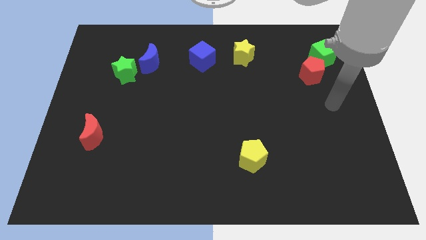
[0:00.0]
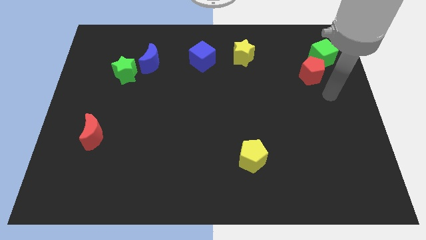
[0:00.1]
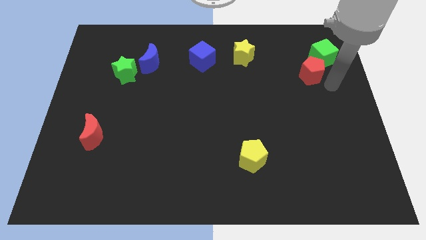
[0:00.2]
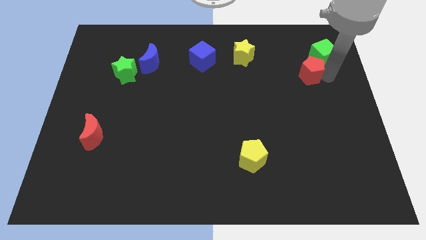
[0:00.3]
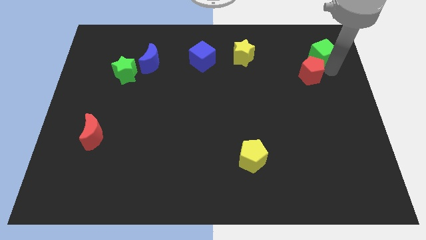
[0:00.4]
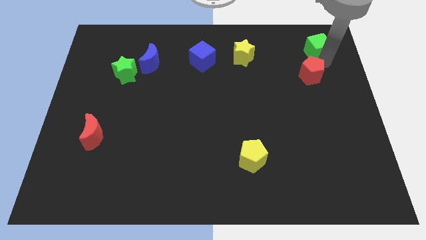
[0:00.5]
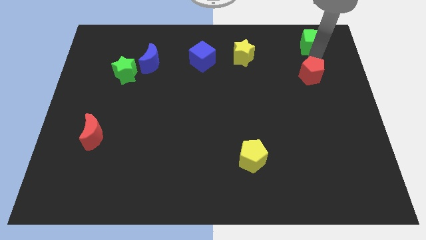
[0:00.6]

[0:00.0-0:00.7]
move the red pentagon away from the green cube

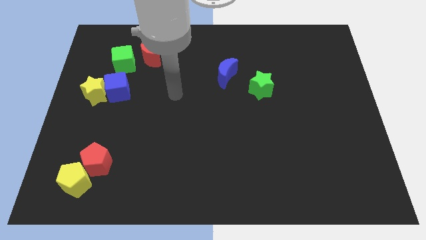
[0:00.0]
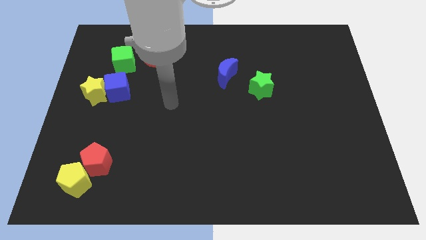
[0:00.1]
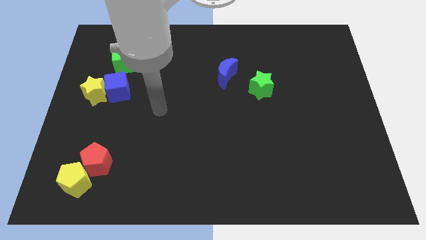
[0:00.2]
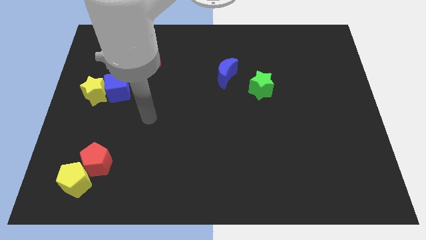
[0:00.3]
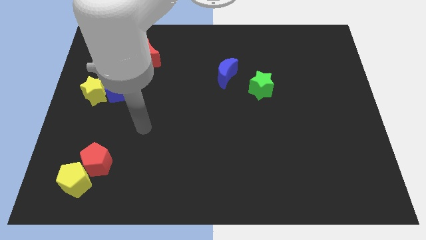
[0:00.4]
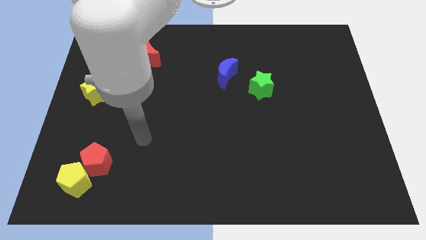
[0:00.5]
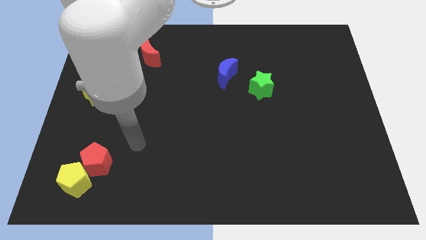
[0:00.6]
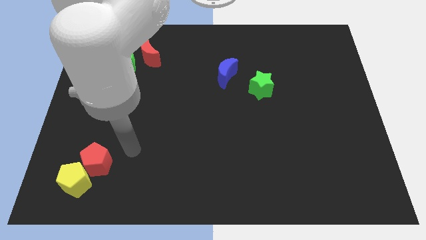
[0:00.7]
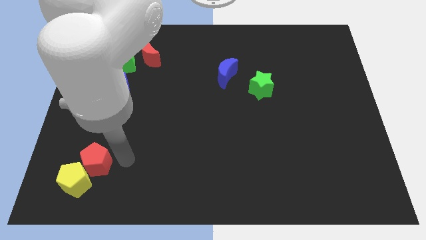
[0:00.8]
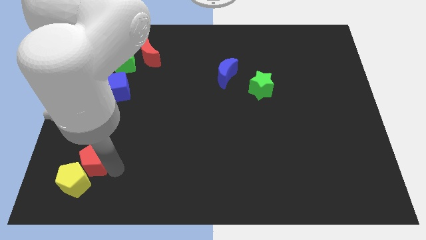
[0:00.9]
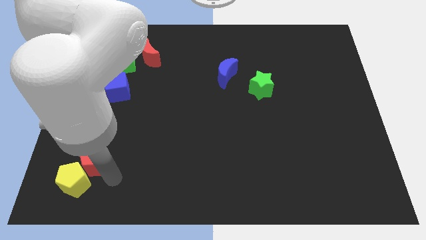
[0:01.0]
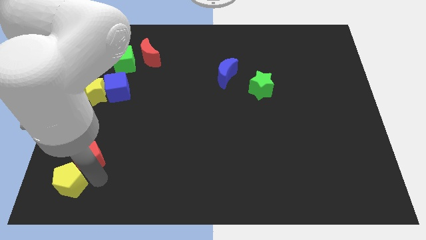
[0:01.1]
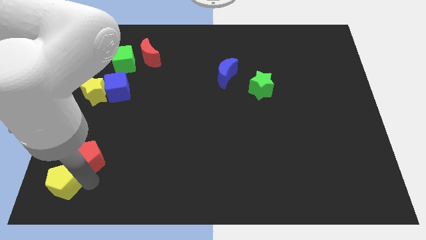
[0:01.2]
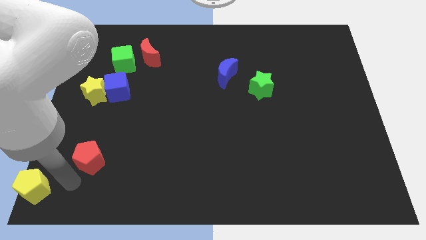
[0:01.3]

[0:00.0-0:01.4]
separate the red pentagon from the yellow pentagon

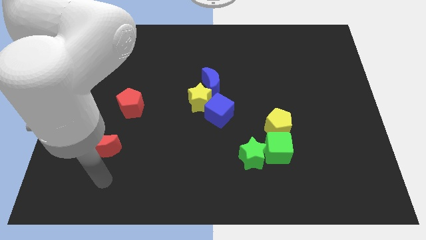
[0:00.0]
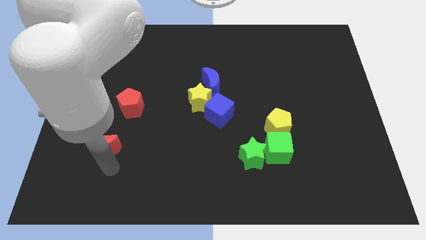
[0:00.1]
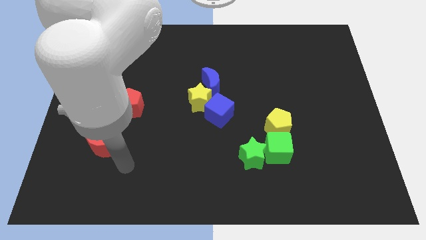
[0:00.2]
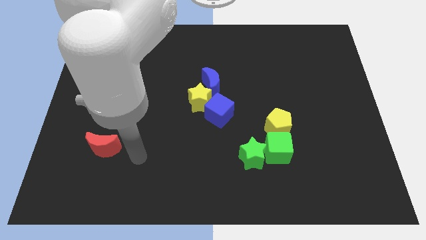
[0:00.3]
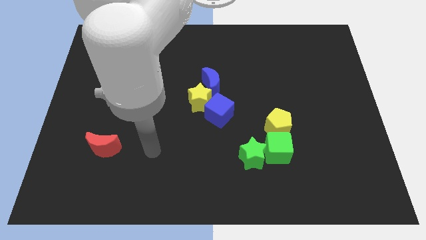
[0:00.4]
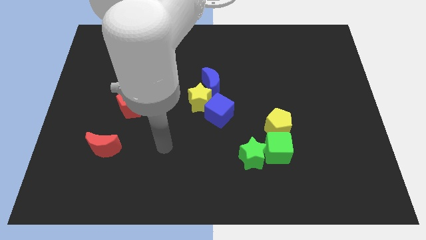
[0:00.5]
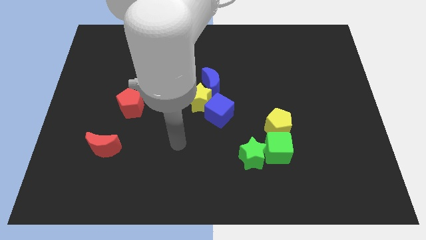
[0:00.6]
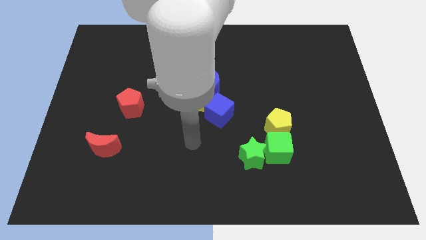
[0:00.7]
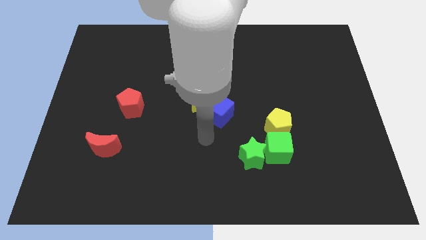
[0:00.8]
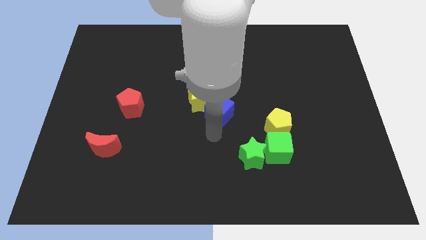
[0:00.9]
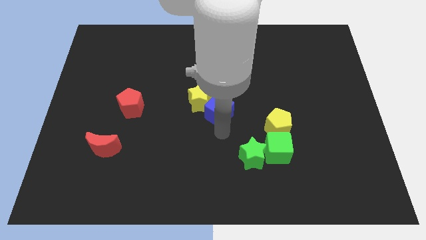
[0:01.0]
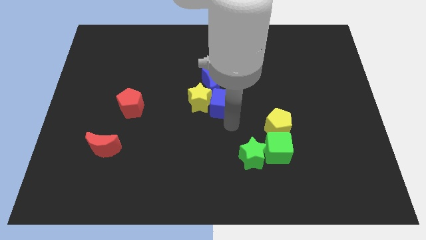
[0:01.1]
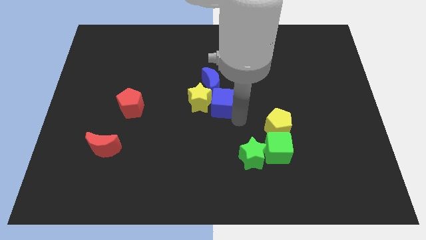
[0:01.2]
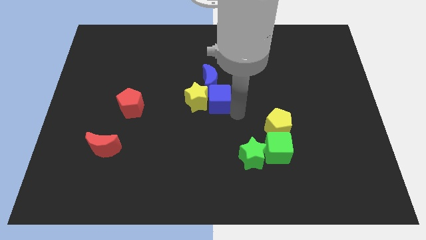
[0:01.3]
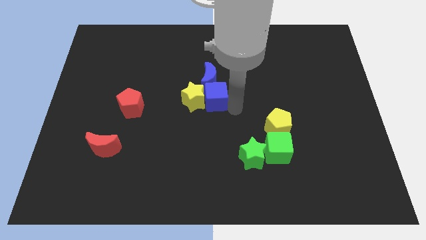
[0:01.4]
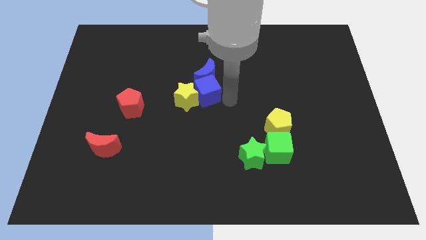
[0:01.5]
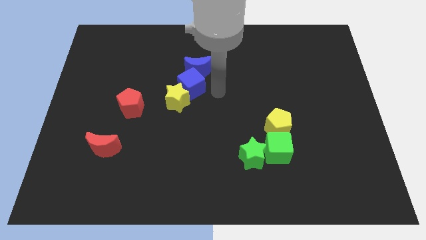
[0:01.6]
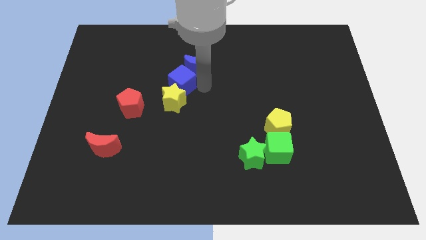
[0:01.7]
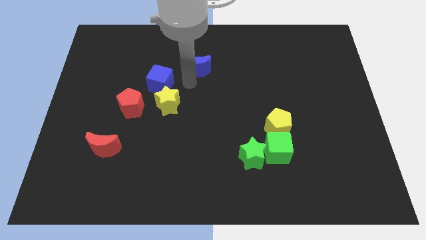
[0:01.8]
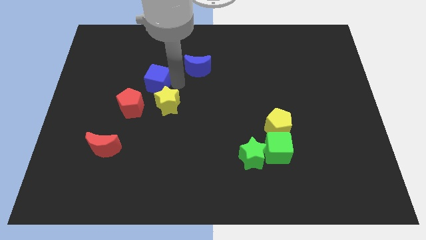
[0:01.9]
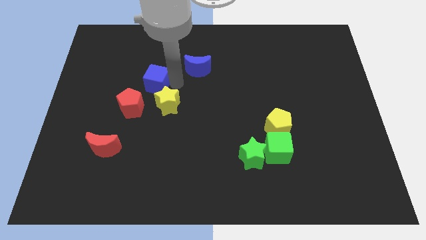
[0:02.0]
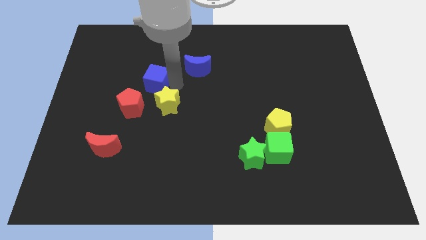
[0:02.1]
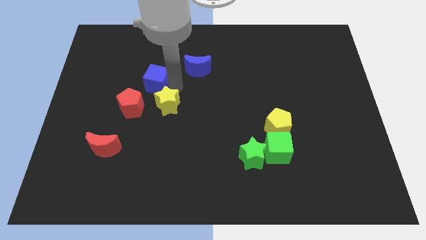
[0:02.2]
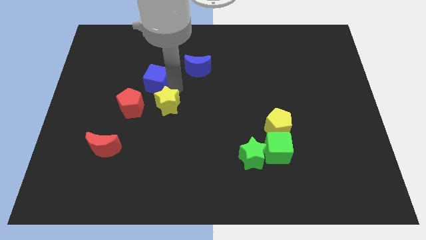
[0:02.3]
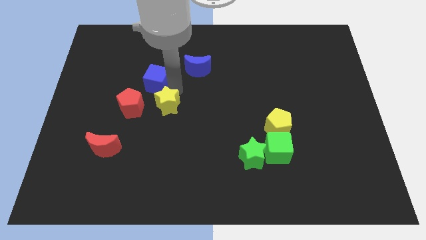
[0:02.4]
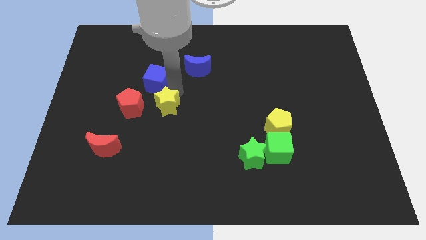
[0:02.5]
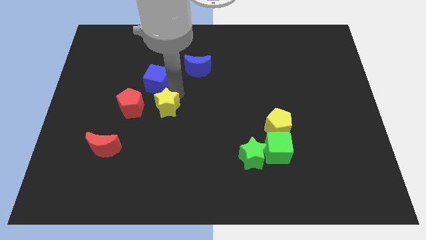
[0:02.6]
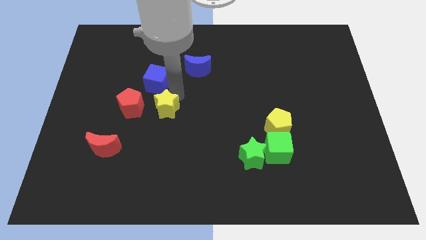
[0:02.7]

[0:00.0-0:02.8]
move the yellow star away from the blue cube and blue moon

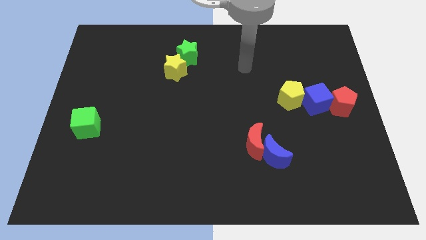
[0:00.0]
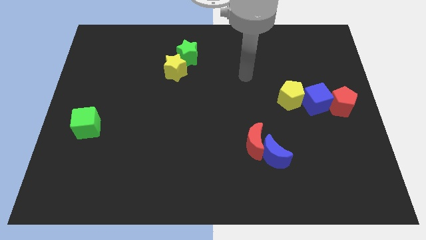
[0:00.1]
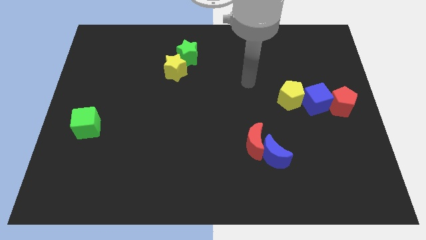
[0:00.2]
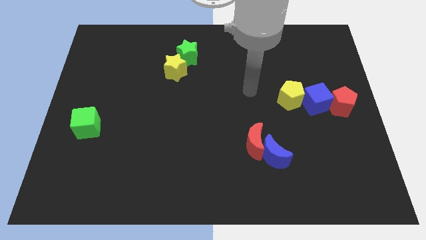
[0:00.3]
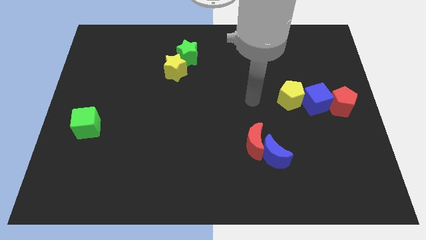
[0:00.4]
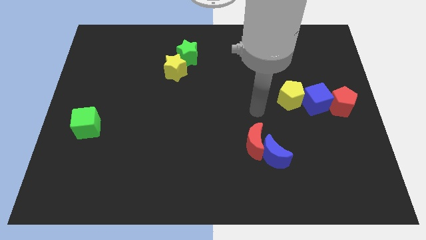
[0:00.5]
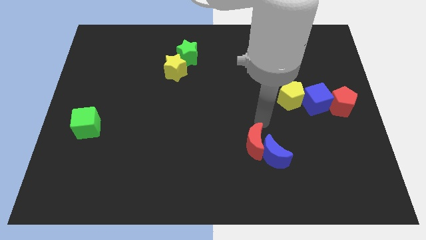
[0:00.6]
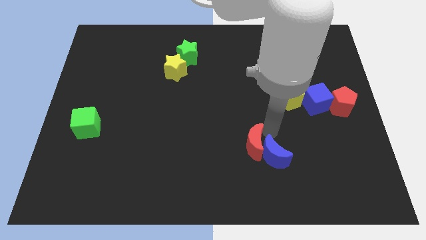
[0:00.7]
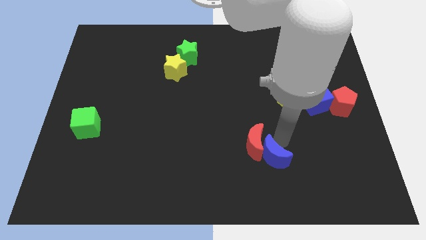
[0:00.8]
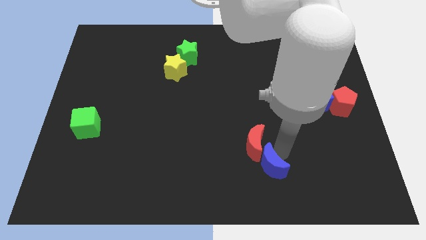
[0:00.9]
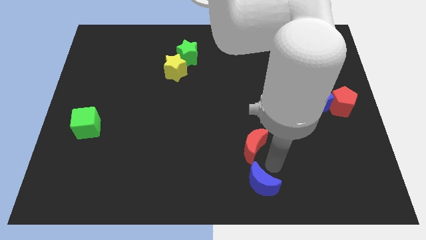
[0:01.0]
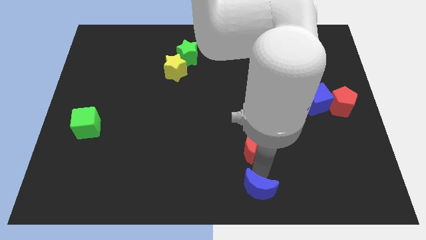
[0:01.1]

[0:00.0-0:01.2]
move the red moon away from the blue moon

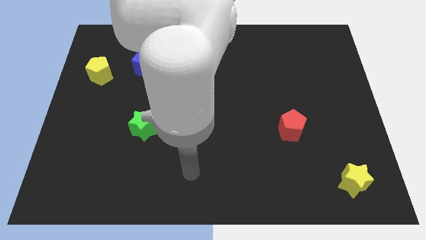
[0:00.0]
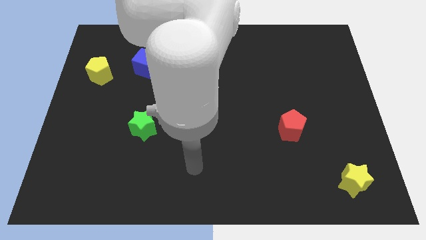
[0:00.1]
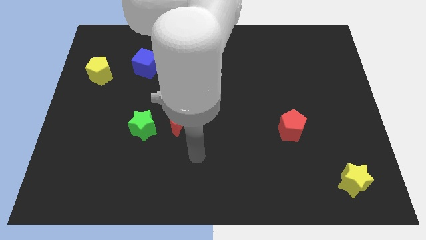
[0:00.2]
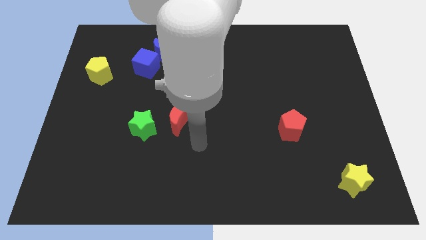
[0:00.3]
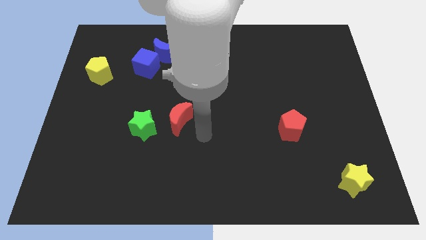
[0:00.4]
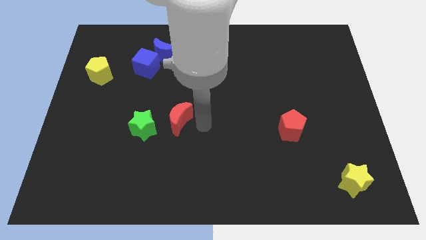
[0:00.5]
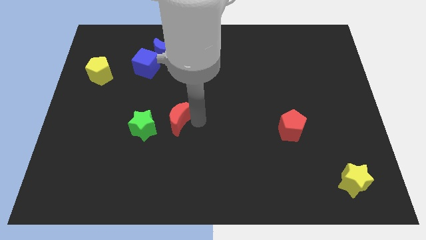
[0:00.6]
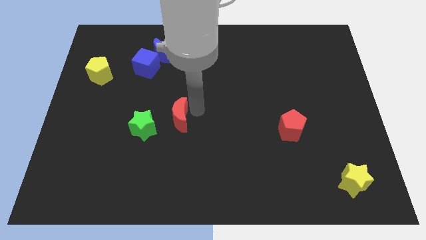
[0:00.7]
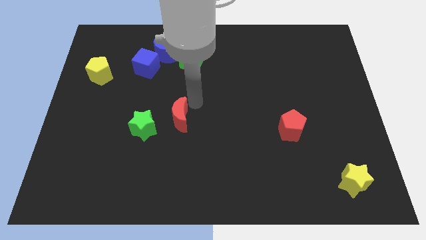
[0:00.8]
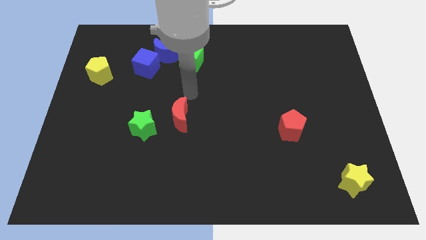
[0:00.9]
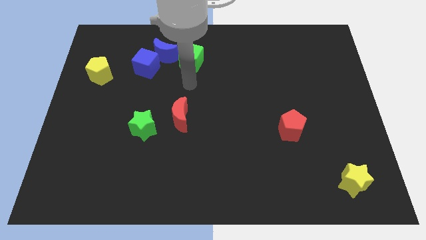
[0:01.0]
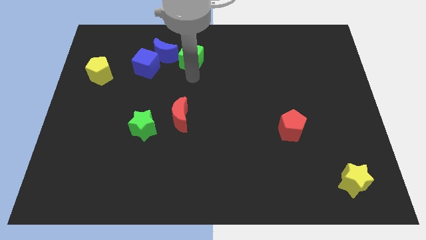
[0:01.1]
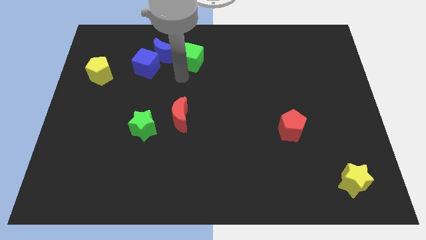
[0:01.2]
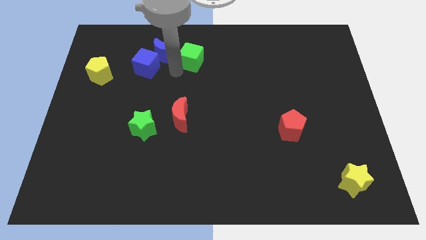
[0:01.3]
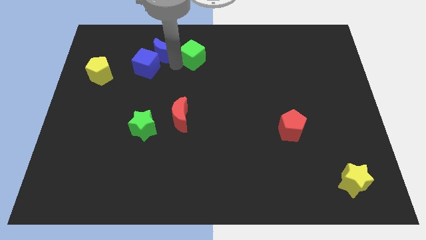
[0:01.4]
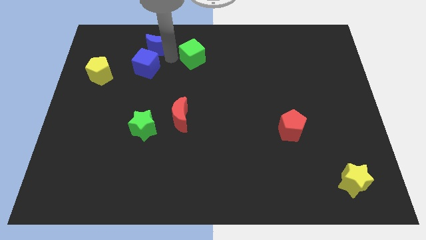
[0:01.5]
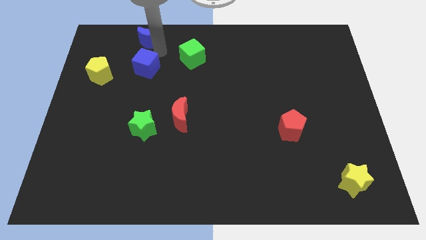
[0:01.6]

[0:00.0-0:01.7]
move the blue cube away from the blue moon

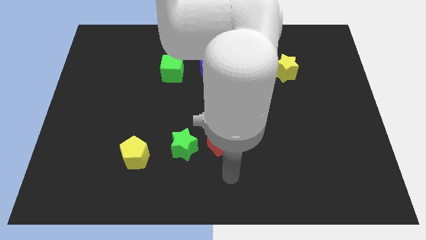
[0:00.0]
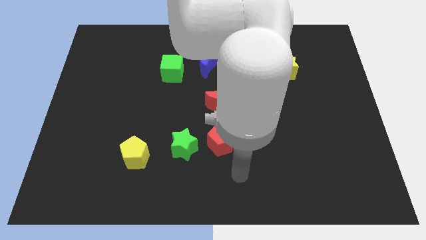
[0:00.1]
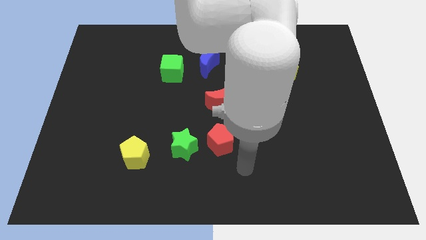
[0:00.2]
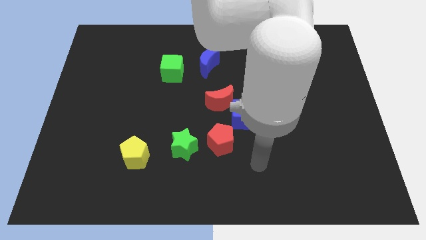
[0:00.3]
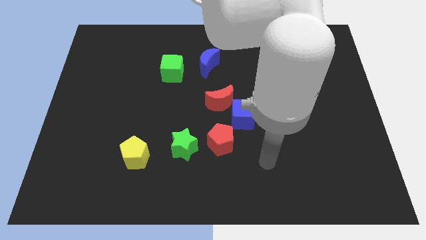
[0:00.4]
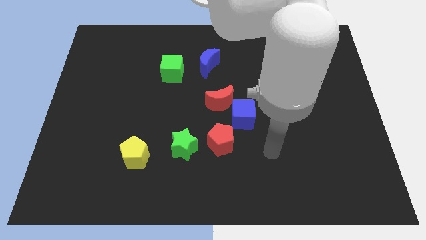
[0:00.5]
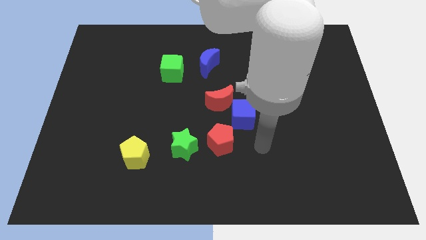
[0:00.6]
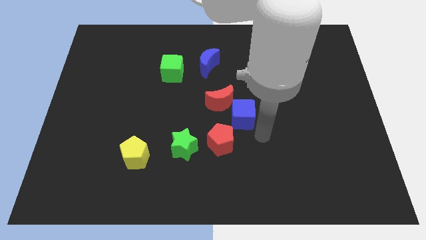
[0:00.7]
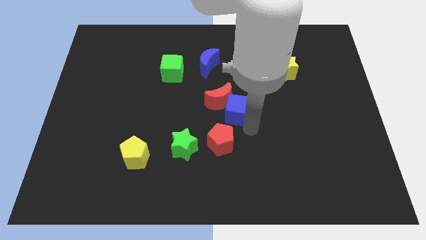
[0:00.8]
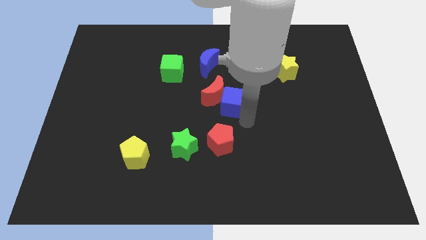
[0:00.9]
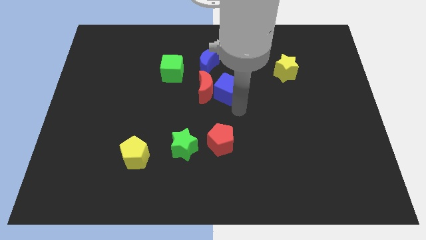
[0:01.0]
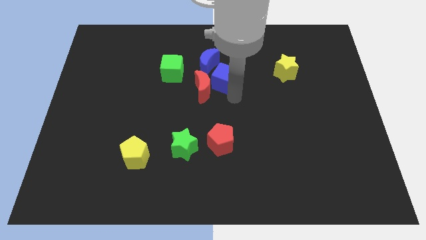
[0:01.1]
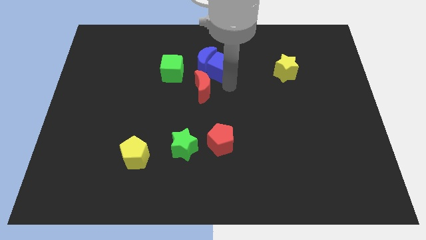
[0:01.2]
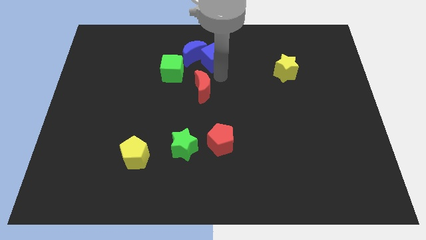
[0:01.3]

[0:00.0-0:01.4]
separate the red moon from the blue cube
